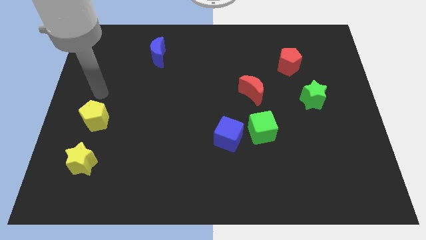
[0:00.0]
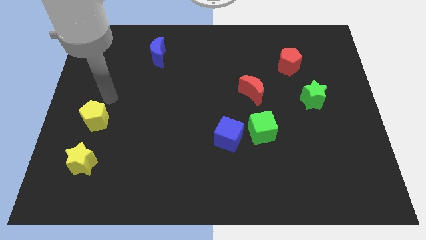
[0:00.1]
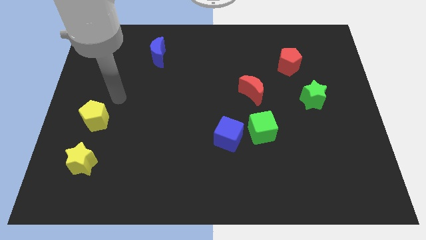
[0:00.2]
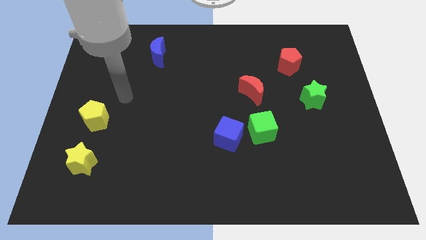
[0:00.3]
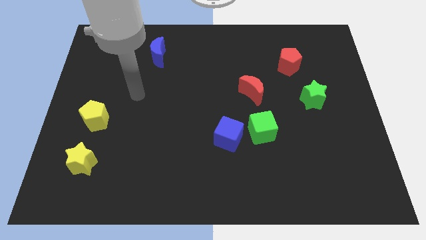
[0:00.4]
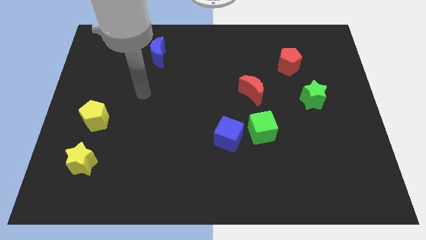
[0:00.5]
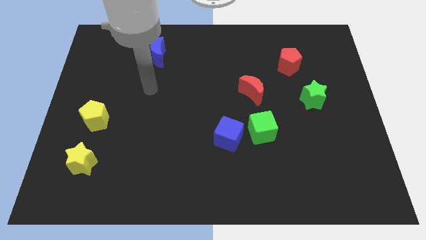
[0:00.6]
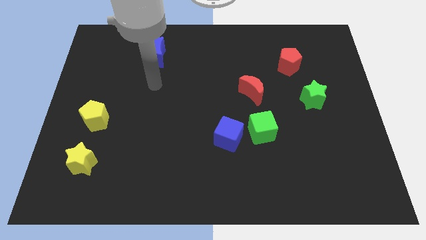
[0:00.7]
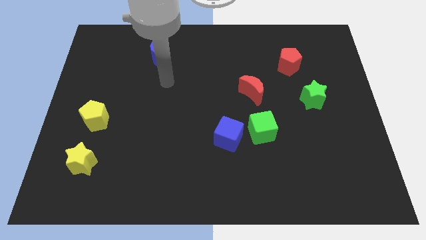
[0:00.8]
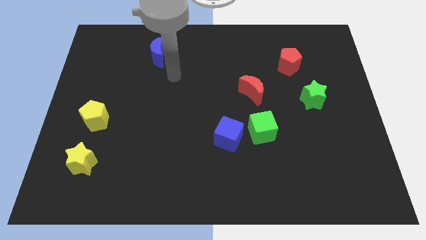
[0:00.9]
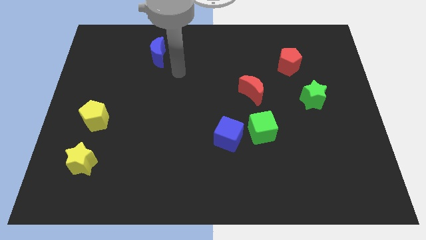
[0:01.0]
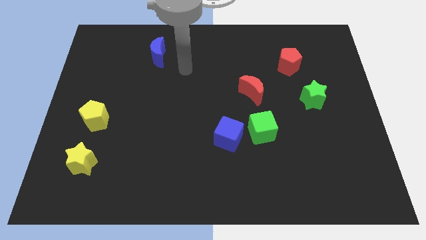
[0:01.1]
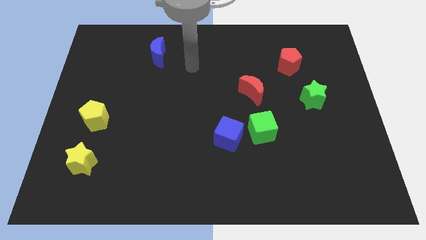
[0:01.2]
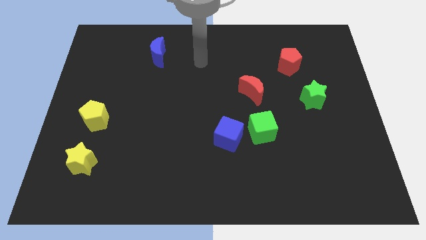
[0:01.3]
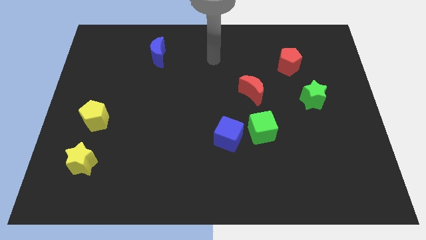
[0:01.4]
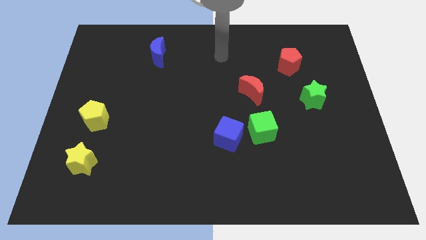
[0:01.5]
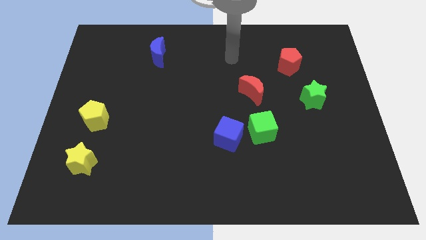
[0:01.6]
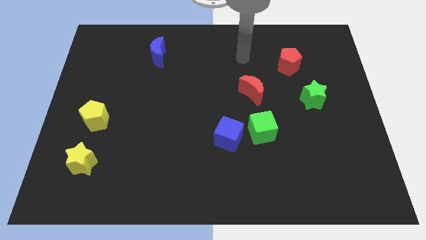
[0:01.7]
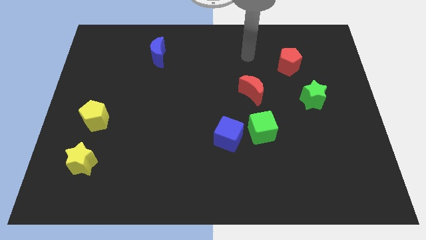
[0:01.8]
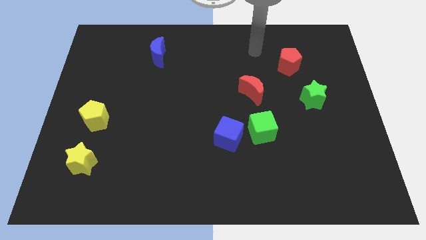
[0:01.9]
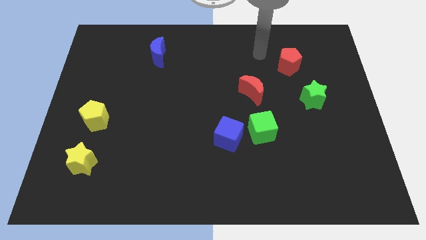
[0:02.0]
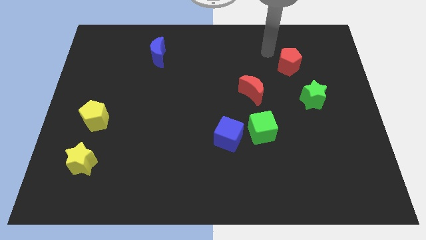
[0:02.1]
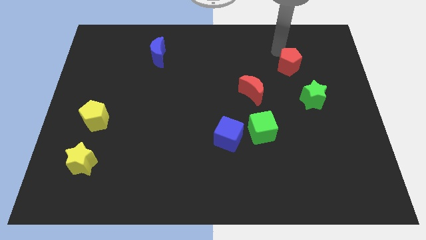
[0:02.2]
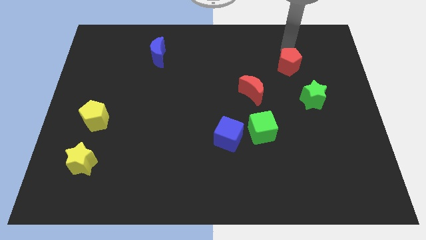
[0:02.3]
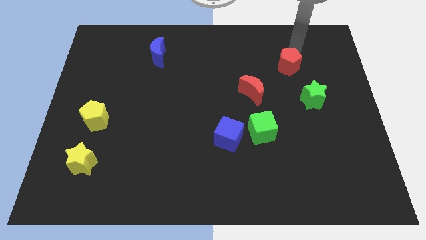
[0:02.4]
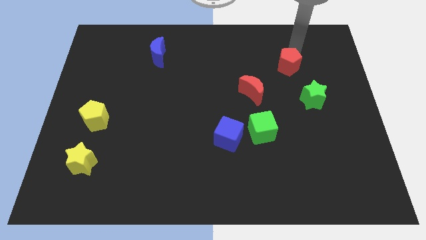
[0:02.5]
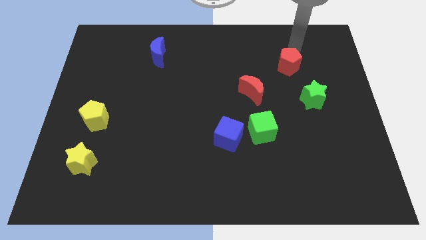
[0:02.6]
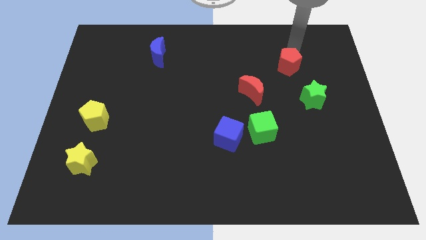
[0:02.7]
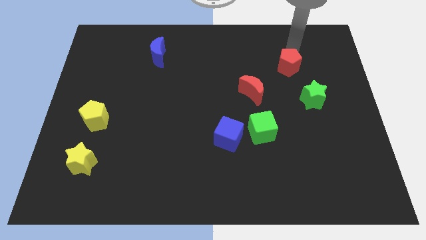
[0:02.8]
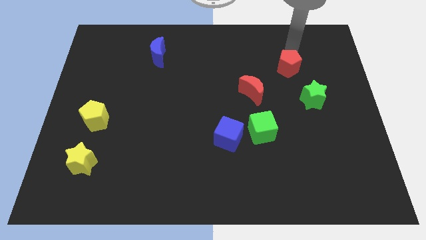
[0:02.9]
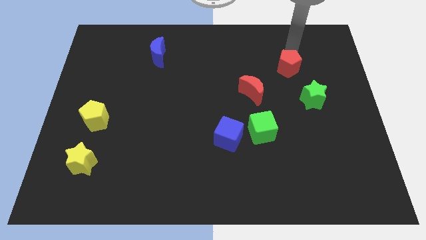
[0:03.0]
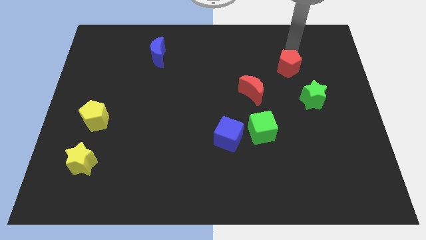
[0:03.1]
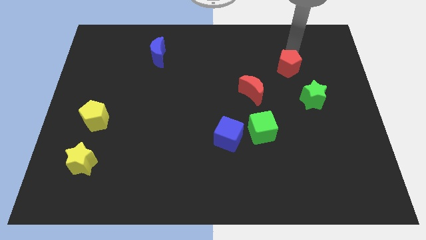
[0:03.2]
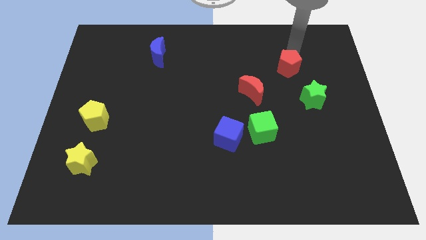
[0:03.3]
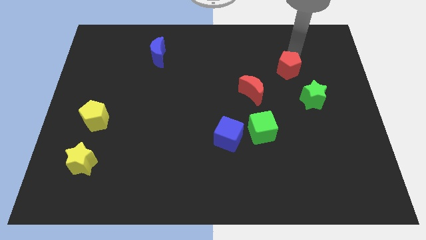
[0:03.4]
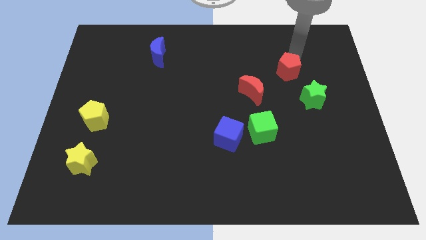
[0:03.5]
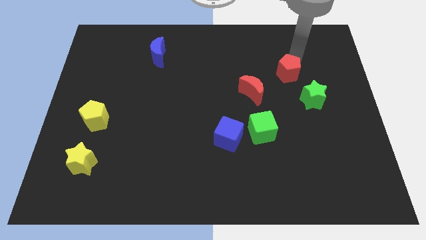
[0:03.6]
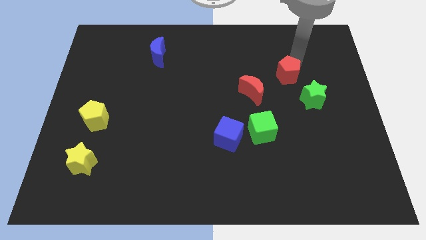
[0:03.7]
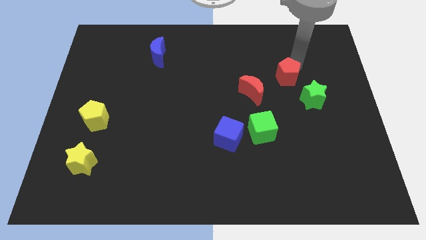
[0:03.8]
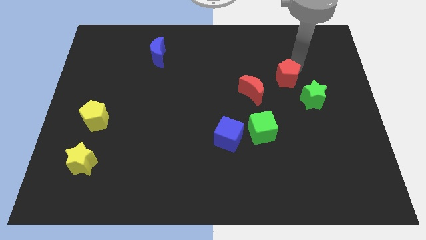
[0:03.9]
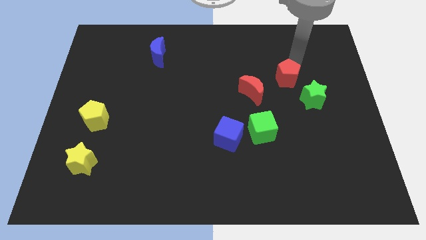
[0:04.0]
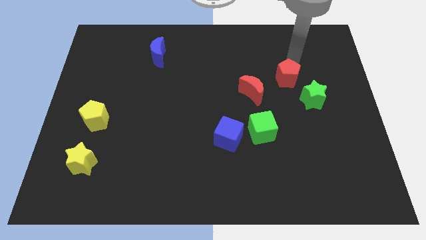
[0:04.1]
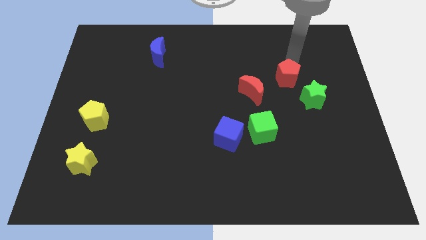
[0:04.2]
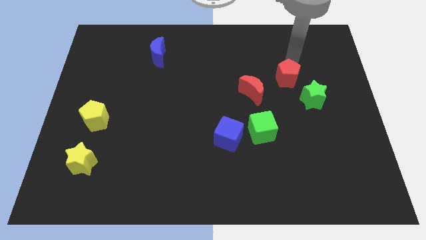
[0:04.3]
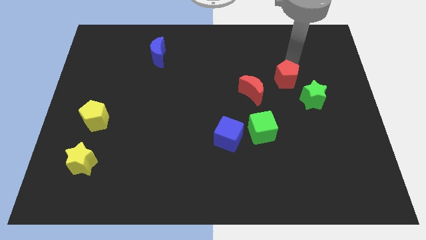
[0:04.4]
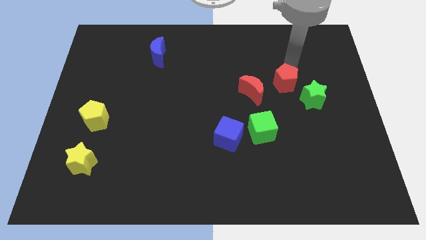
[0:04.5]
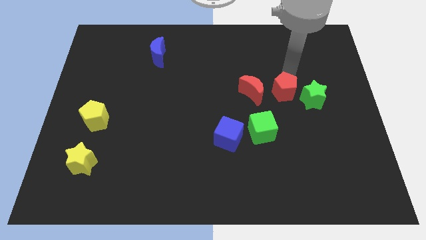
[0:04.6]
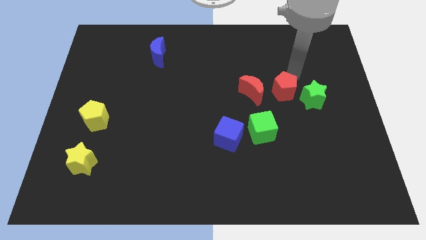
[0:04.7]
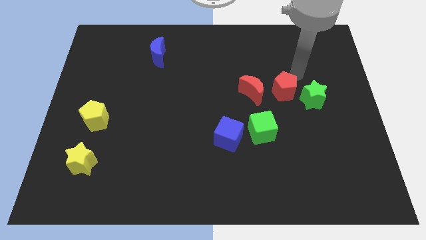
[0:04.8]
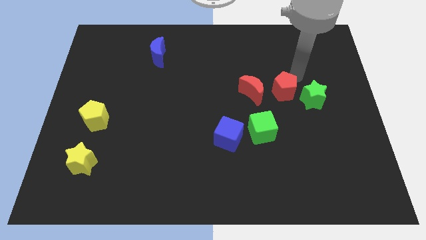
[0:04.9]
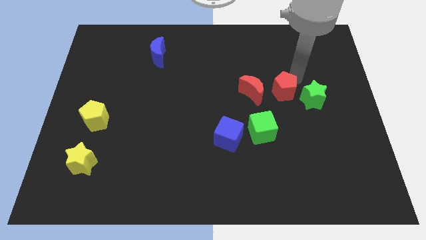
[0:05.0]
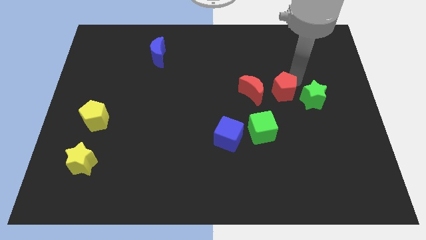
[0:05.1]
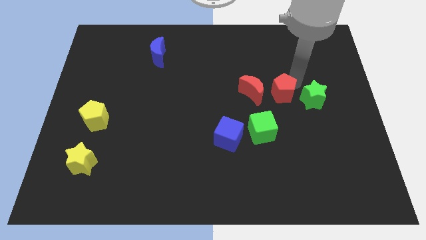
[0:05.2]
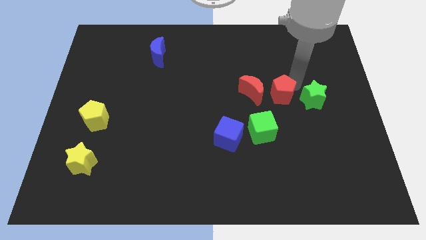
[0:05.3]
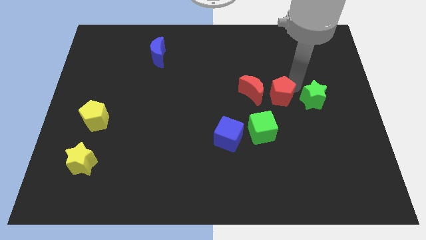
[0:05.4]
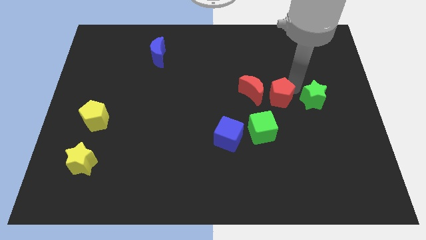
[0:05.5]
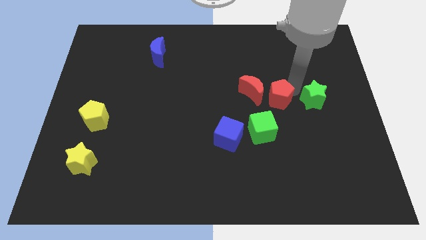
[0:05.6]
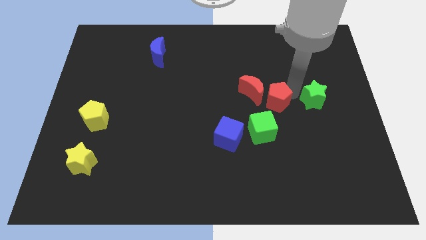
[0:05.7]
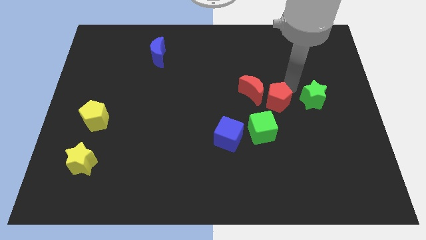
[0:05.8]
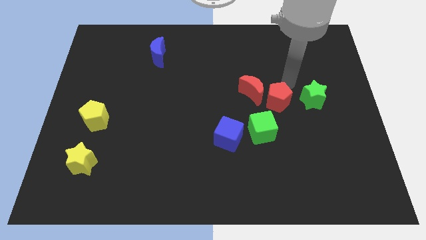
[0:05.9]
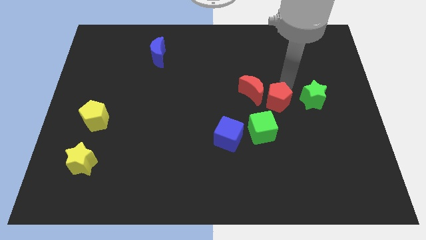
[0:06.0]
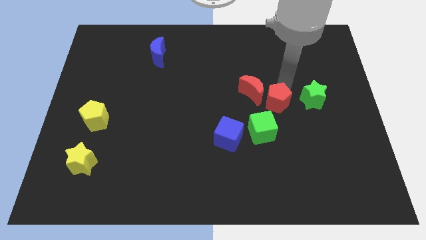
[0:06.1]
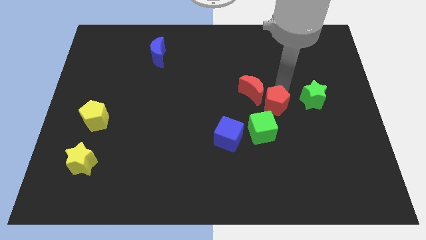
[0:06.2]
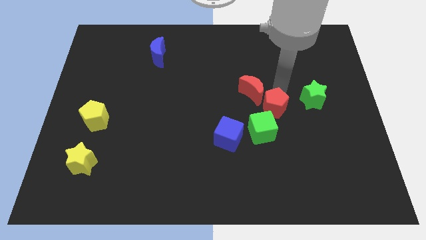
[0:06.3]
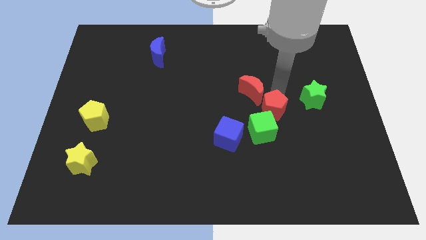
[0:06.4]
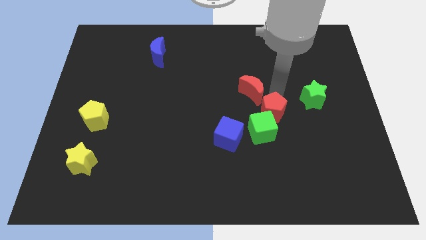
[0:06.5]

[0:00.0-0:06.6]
put the red pentagon towards the green cube
